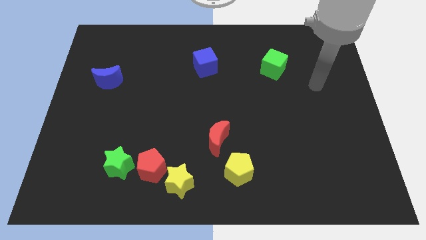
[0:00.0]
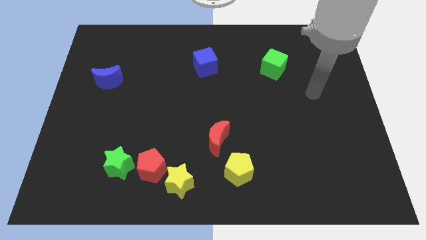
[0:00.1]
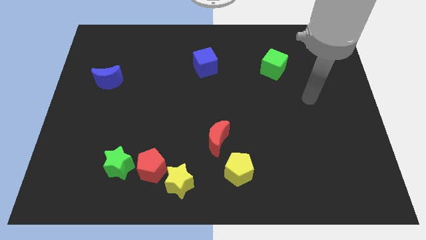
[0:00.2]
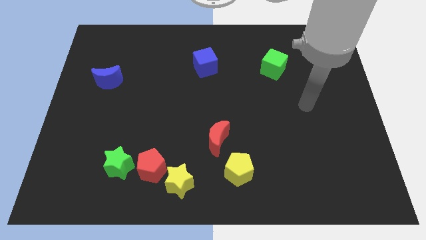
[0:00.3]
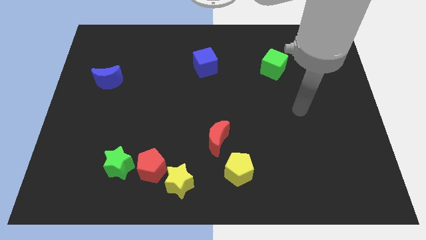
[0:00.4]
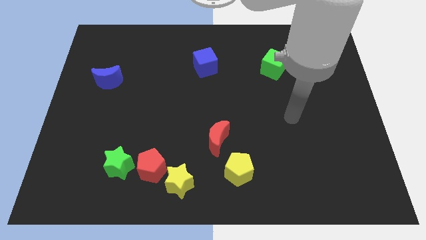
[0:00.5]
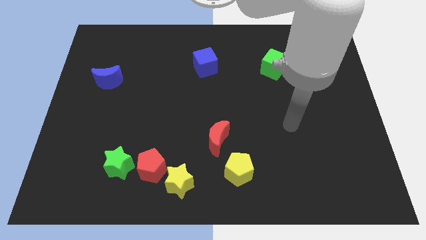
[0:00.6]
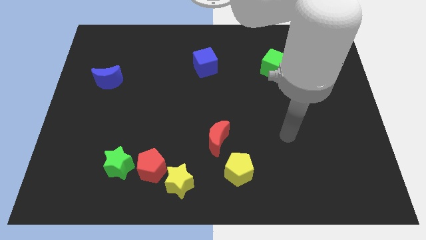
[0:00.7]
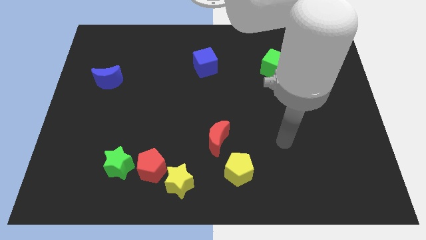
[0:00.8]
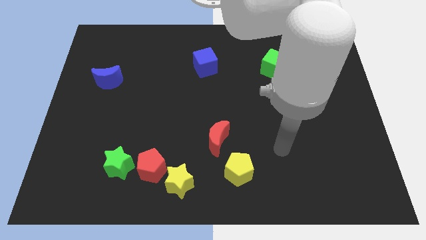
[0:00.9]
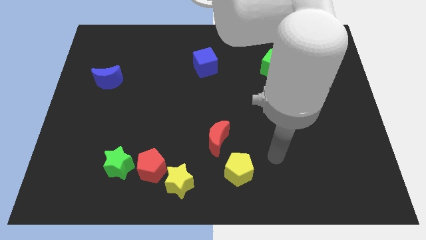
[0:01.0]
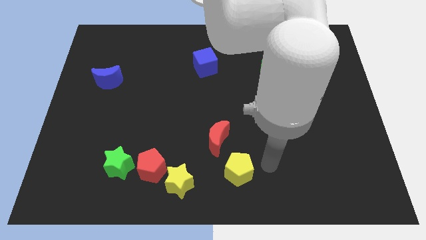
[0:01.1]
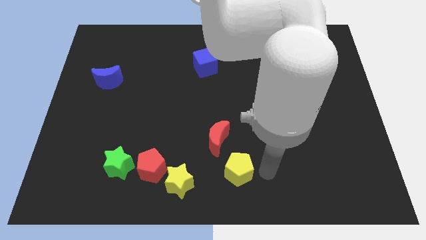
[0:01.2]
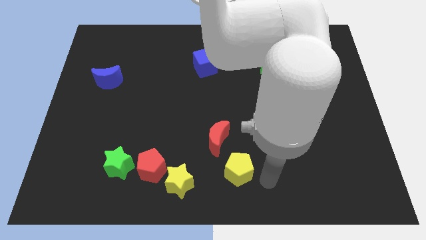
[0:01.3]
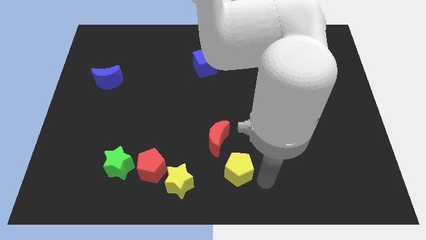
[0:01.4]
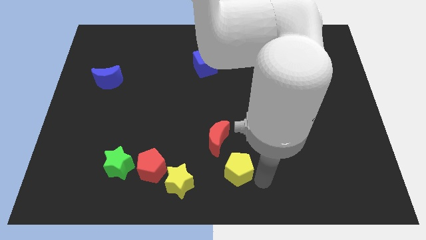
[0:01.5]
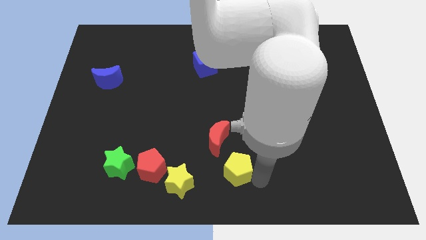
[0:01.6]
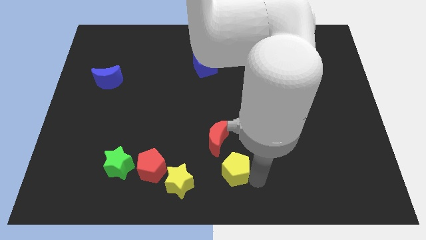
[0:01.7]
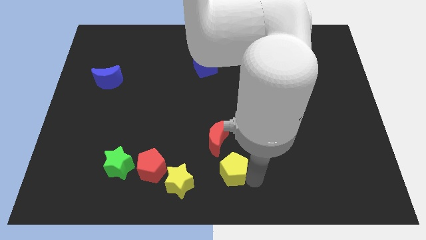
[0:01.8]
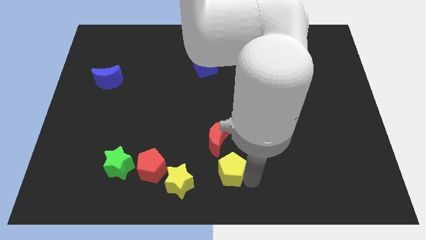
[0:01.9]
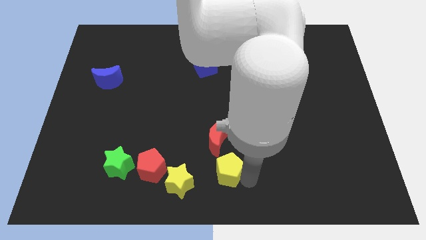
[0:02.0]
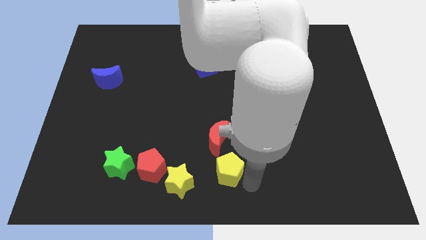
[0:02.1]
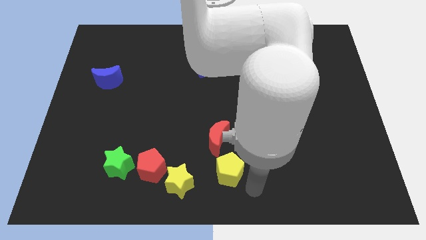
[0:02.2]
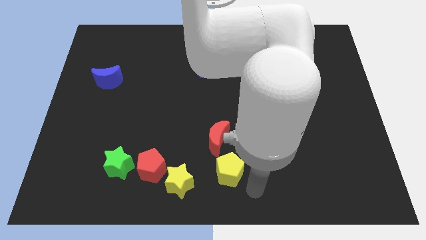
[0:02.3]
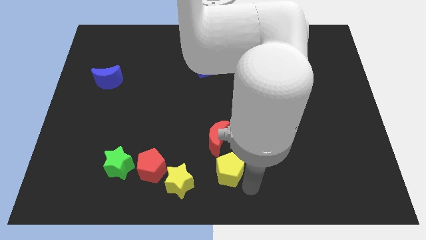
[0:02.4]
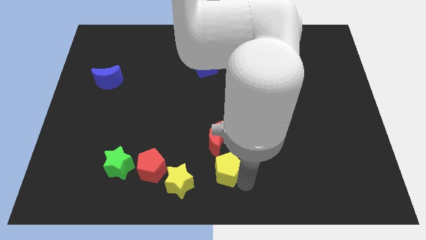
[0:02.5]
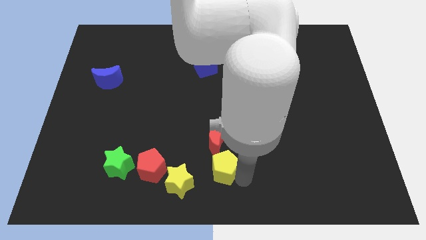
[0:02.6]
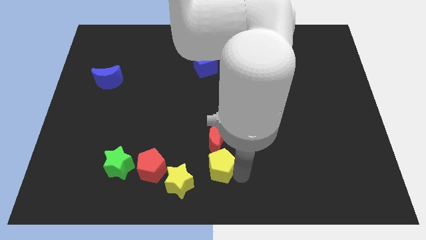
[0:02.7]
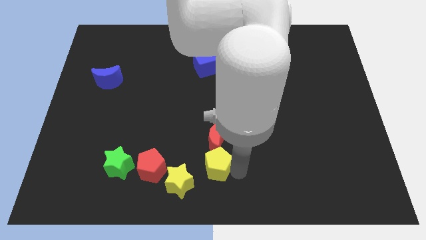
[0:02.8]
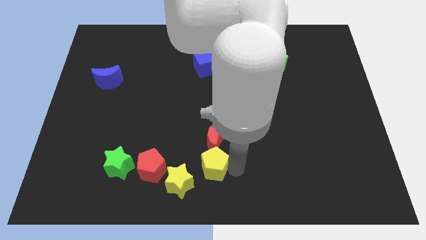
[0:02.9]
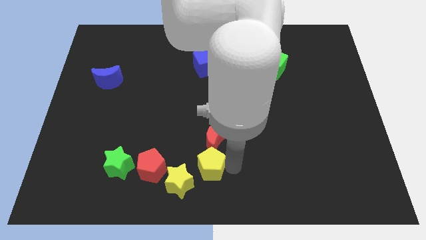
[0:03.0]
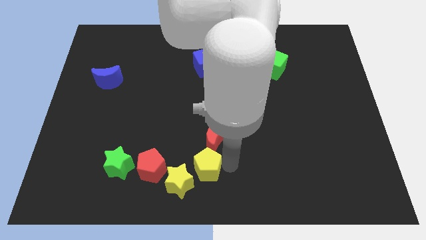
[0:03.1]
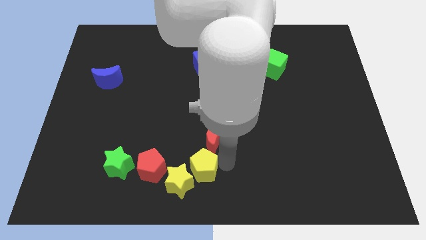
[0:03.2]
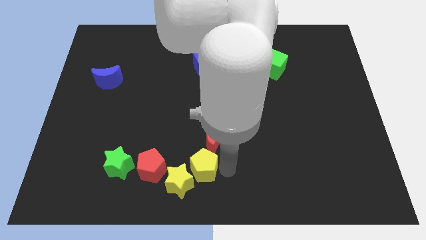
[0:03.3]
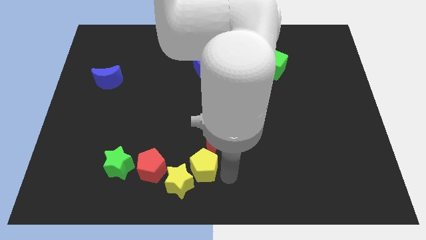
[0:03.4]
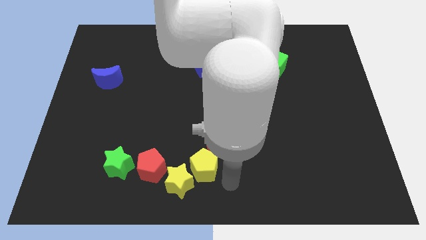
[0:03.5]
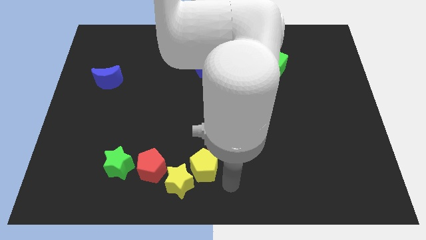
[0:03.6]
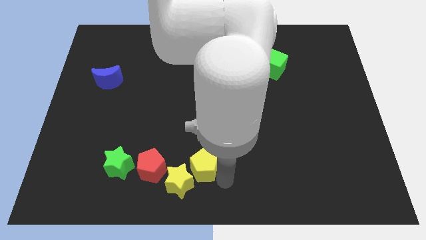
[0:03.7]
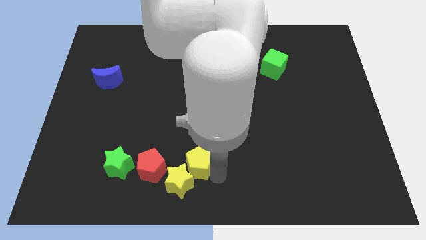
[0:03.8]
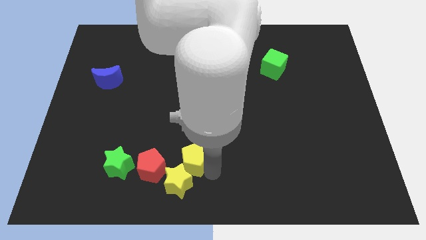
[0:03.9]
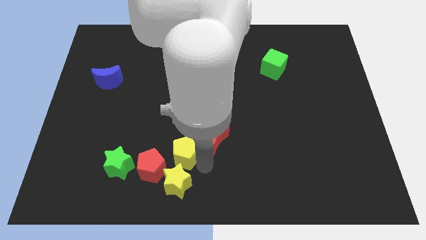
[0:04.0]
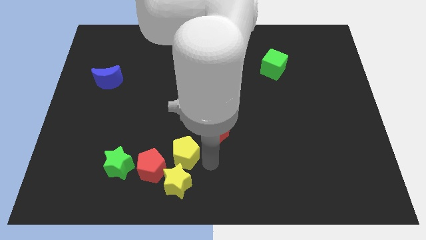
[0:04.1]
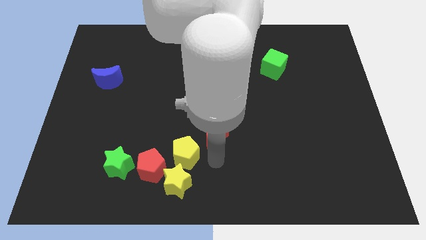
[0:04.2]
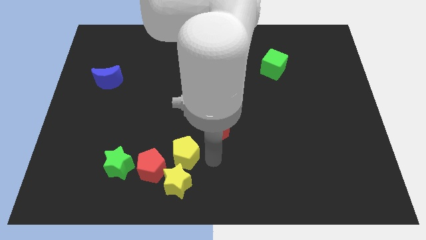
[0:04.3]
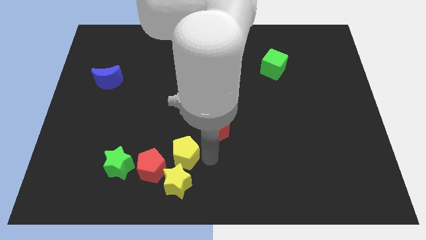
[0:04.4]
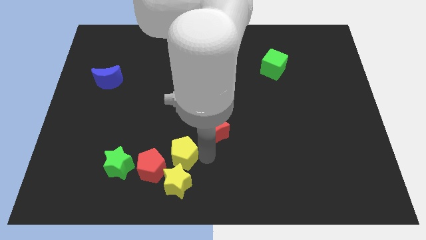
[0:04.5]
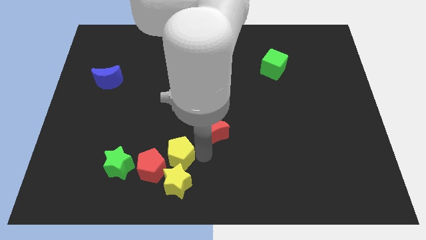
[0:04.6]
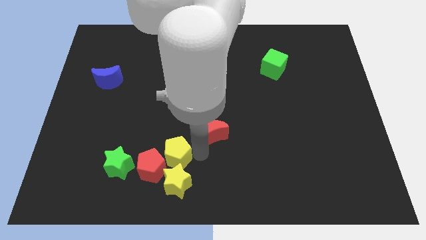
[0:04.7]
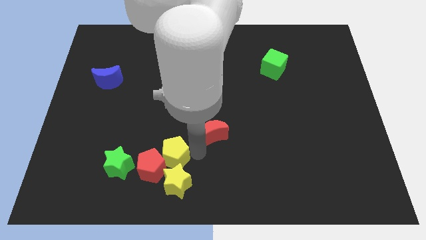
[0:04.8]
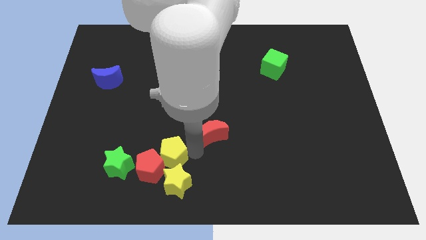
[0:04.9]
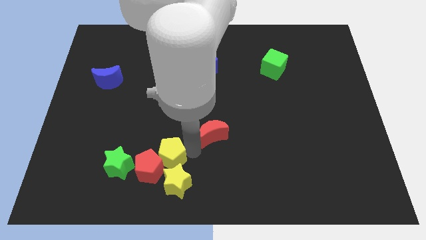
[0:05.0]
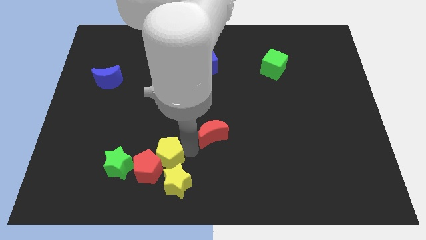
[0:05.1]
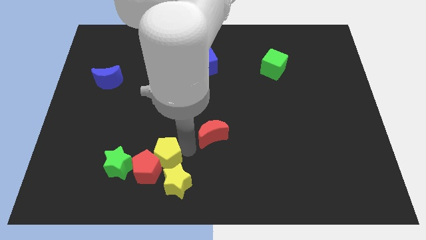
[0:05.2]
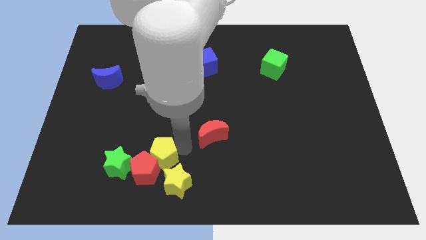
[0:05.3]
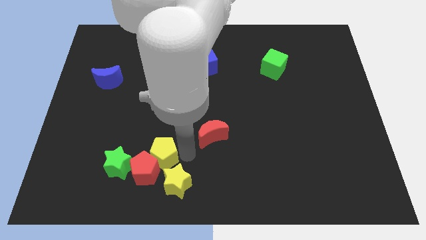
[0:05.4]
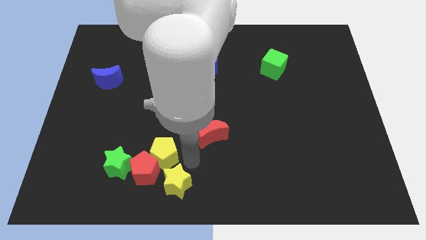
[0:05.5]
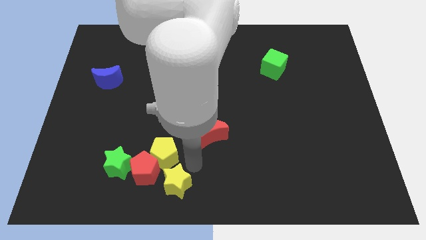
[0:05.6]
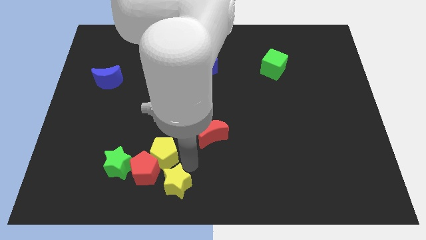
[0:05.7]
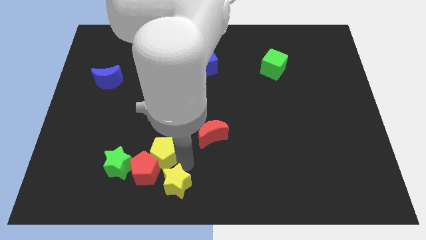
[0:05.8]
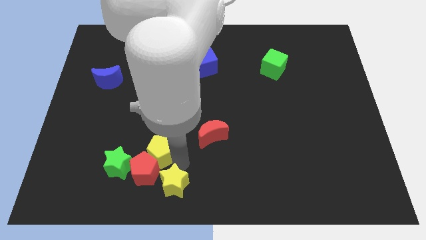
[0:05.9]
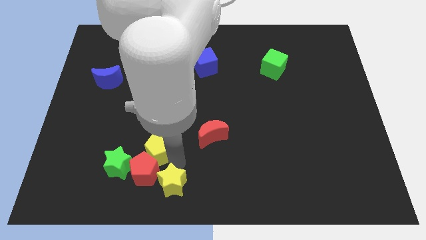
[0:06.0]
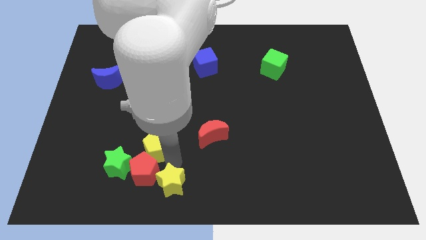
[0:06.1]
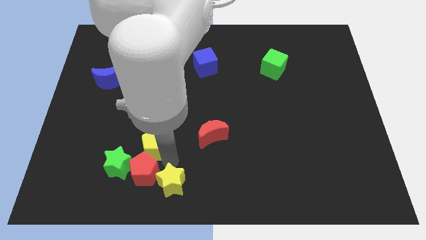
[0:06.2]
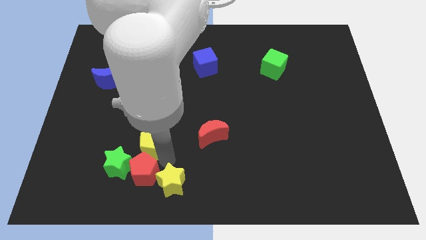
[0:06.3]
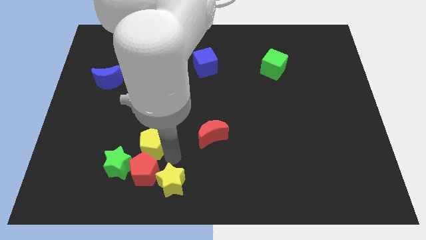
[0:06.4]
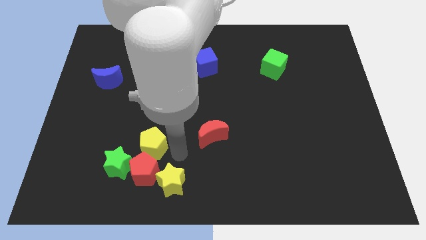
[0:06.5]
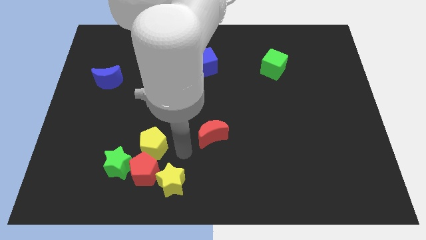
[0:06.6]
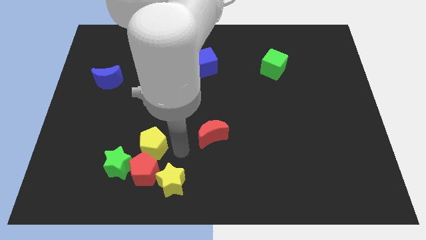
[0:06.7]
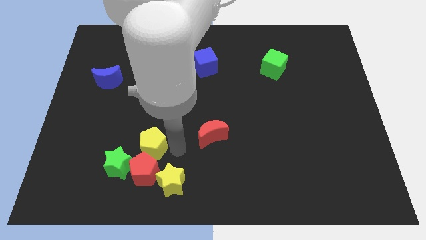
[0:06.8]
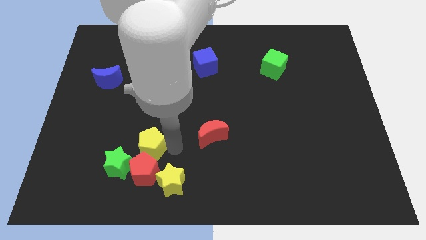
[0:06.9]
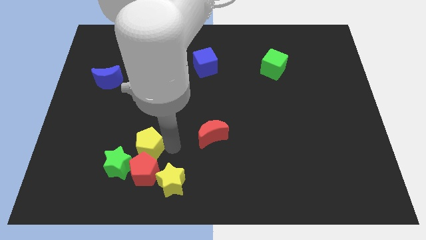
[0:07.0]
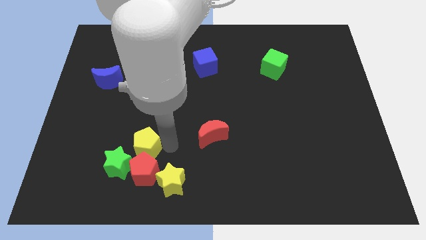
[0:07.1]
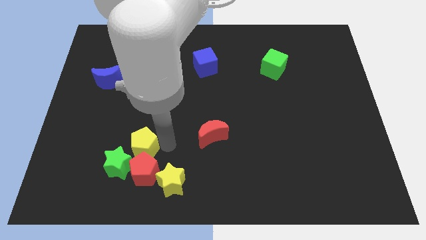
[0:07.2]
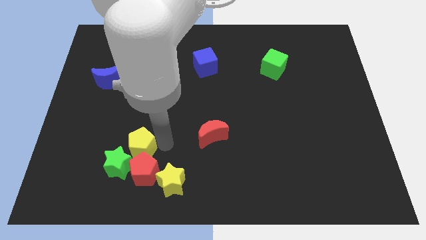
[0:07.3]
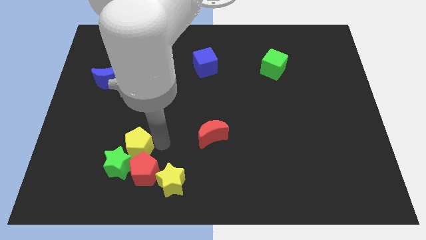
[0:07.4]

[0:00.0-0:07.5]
move the yellow pentagon to the left

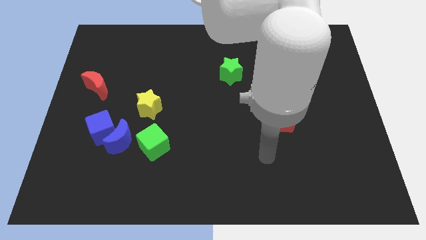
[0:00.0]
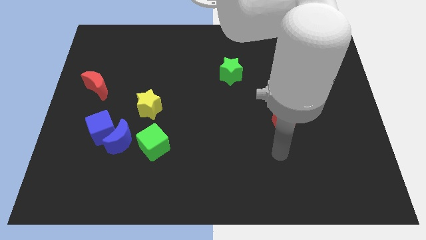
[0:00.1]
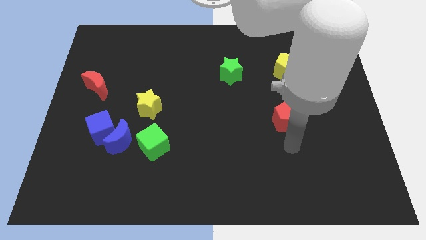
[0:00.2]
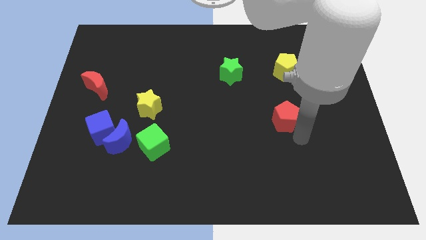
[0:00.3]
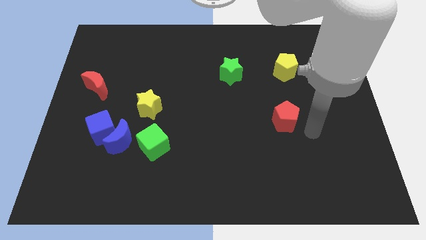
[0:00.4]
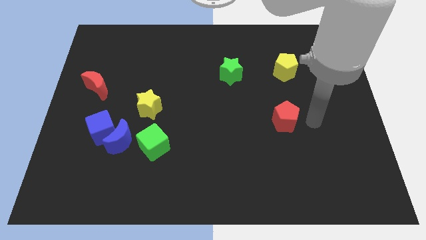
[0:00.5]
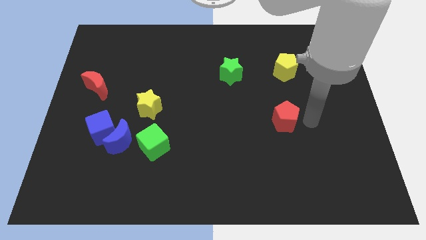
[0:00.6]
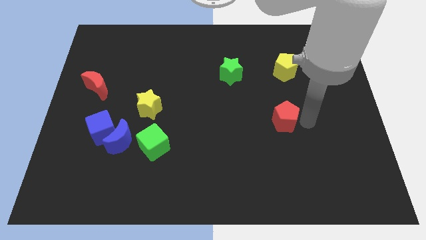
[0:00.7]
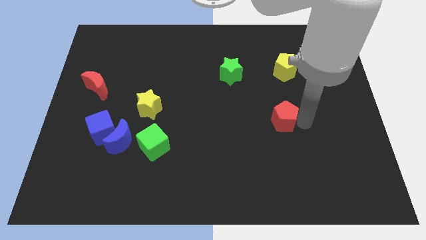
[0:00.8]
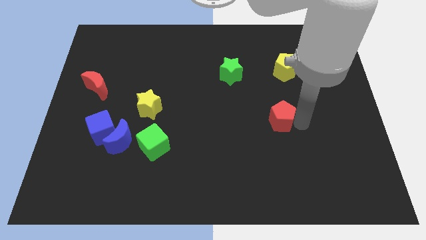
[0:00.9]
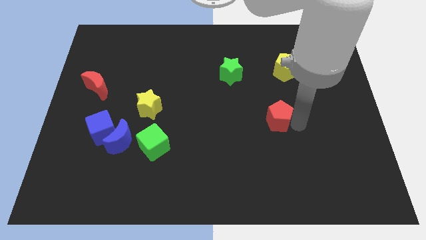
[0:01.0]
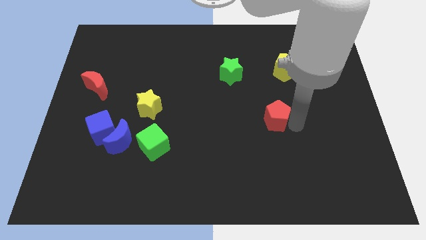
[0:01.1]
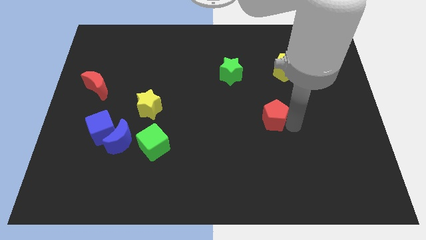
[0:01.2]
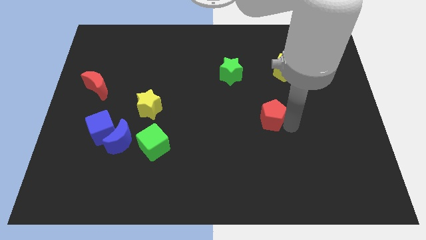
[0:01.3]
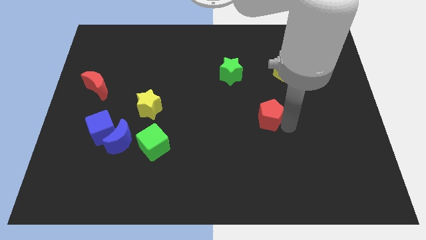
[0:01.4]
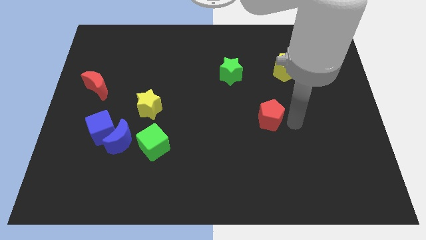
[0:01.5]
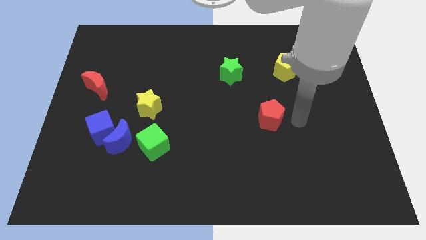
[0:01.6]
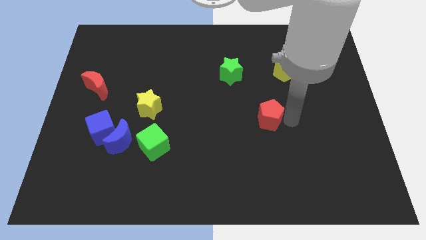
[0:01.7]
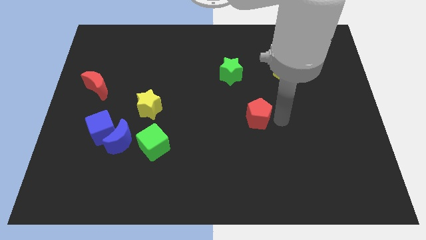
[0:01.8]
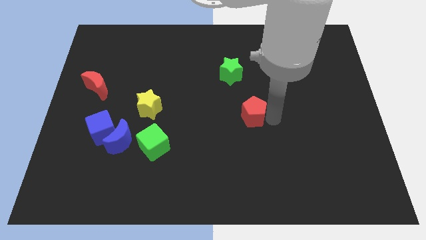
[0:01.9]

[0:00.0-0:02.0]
slide the red pentagon somewhat to the left
